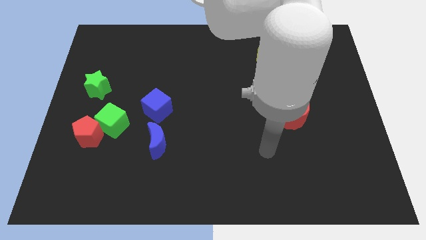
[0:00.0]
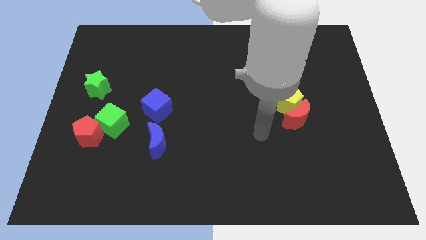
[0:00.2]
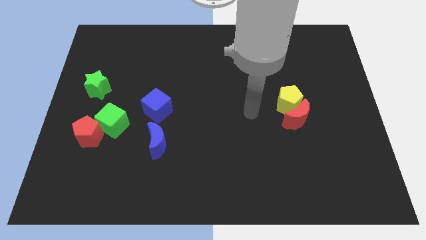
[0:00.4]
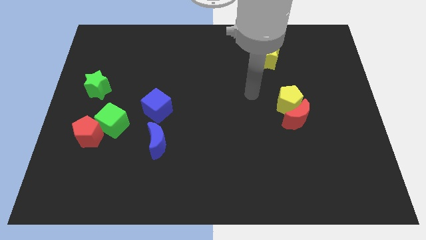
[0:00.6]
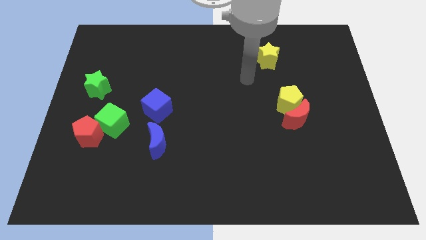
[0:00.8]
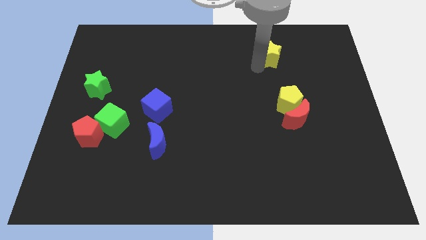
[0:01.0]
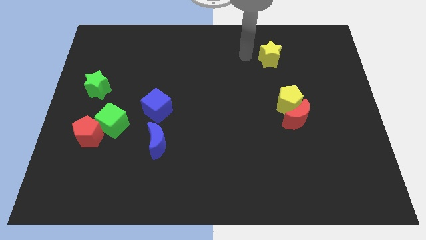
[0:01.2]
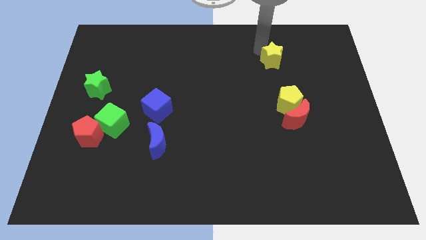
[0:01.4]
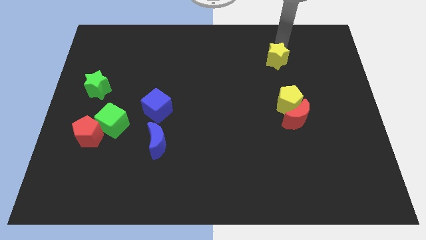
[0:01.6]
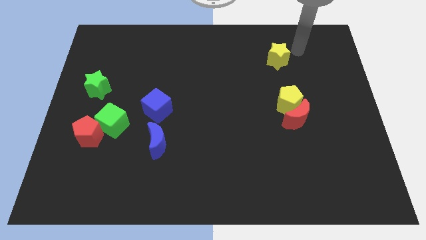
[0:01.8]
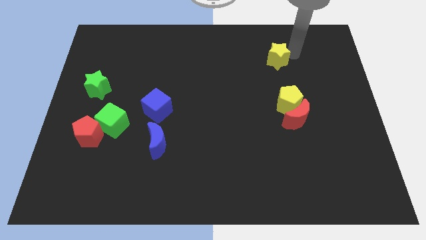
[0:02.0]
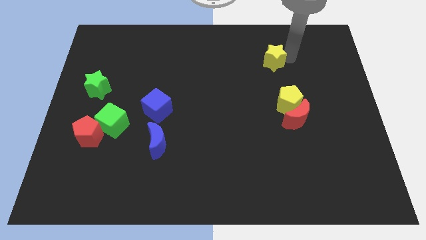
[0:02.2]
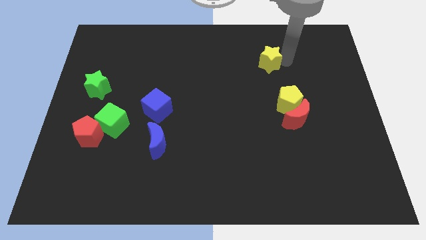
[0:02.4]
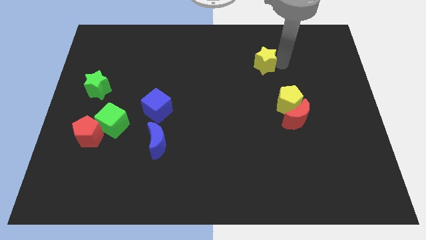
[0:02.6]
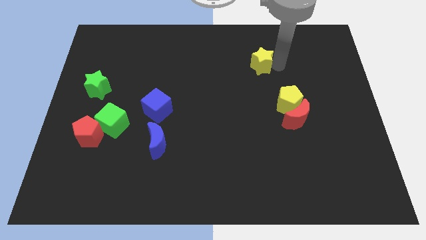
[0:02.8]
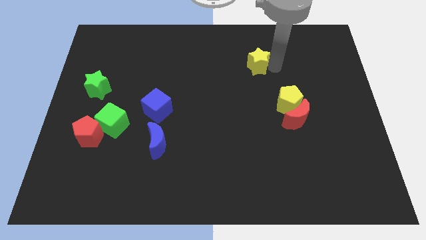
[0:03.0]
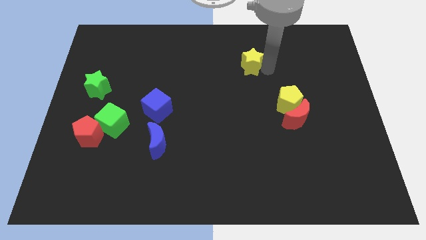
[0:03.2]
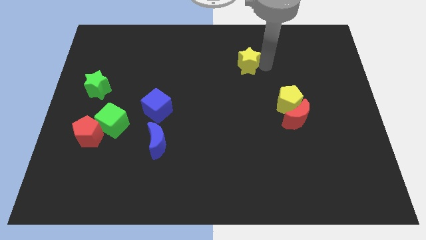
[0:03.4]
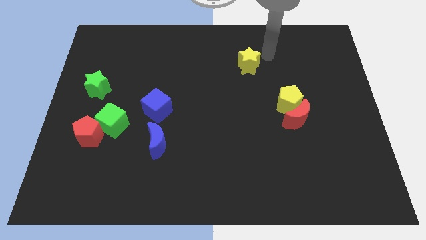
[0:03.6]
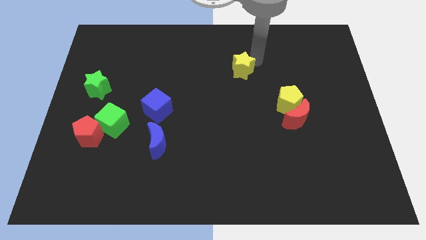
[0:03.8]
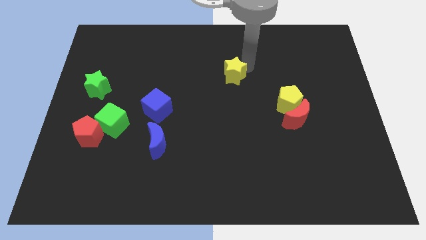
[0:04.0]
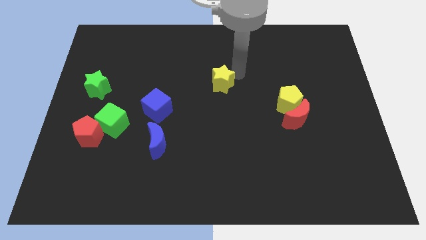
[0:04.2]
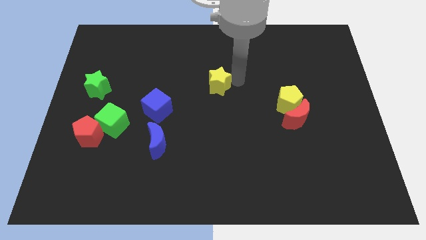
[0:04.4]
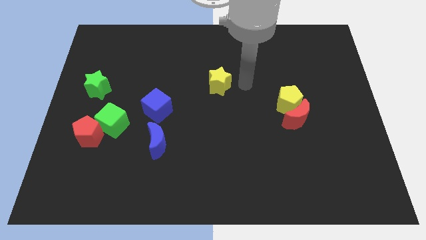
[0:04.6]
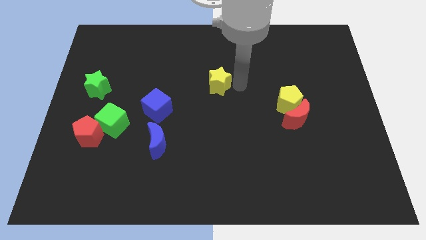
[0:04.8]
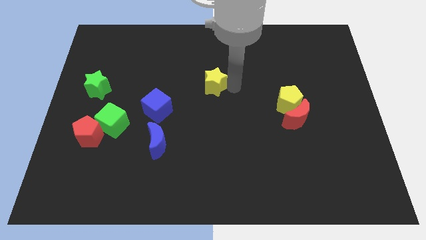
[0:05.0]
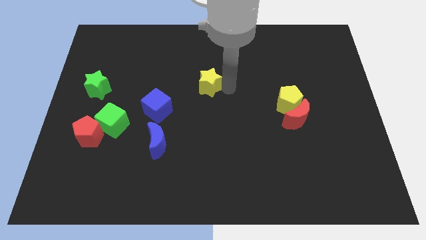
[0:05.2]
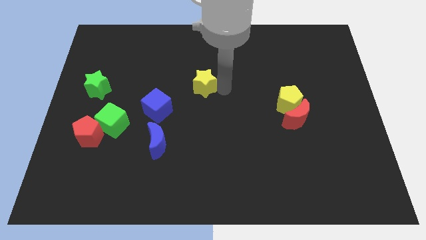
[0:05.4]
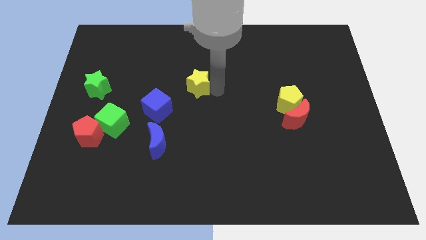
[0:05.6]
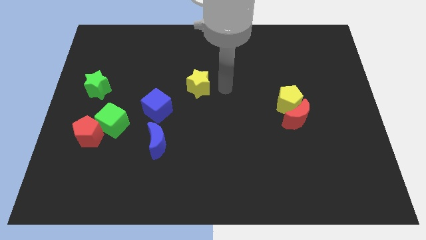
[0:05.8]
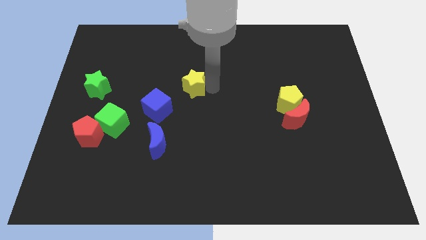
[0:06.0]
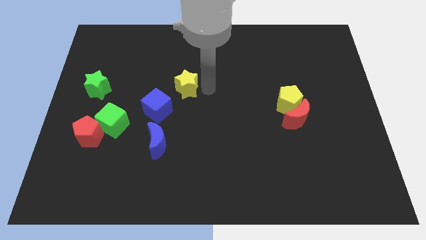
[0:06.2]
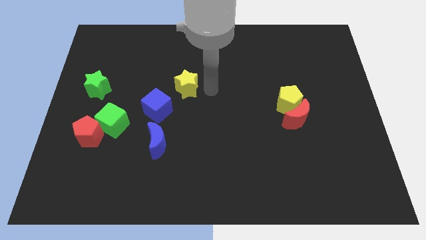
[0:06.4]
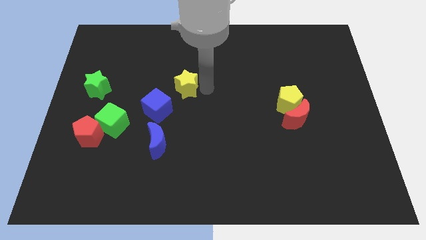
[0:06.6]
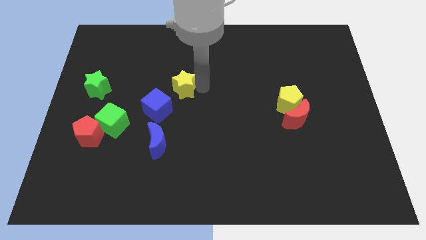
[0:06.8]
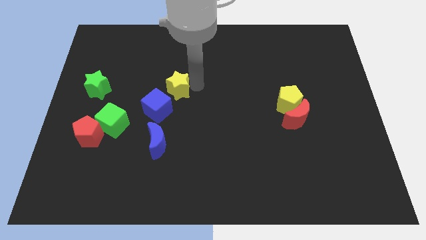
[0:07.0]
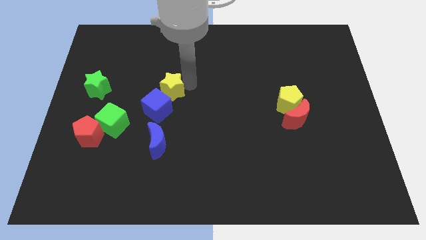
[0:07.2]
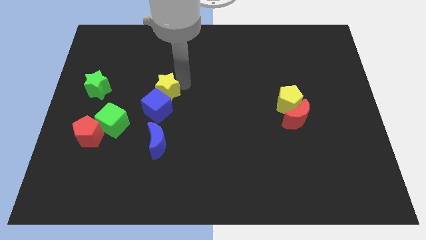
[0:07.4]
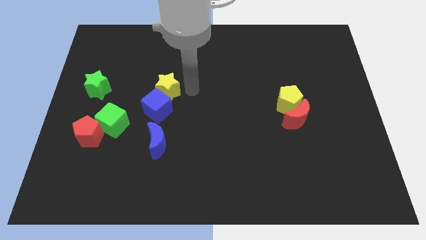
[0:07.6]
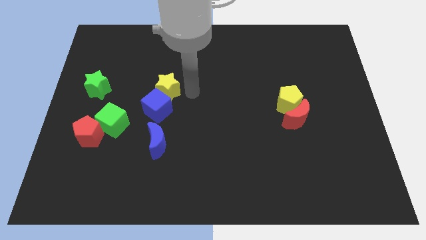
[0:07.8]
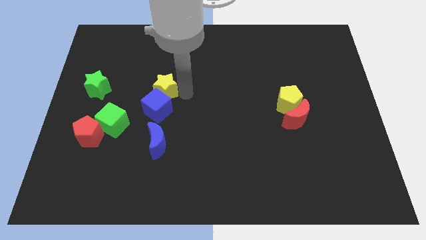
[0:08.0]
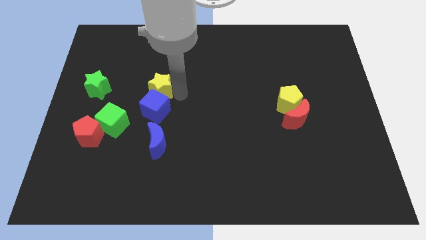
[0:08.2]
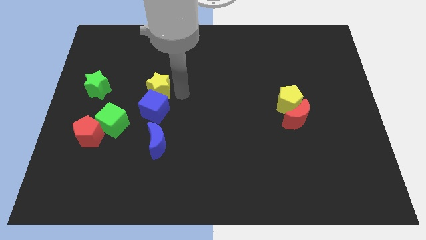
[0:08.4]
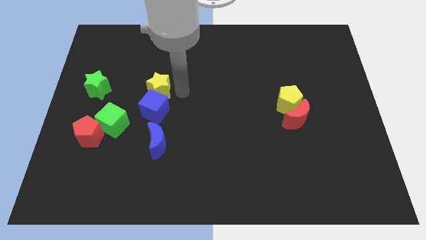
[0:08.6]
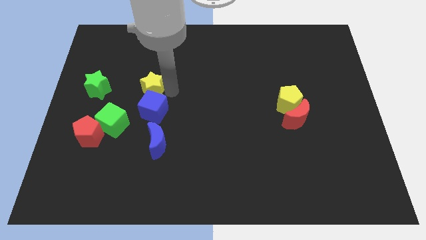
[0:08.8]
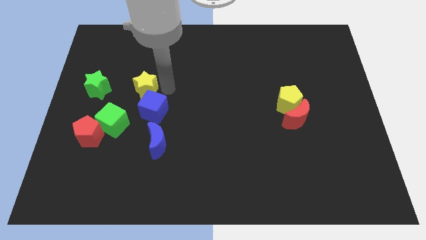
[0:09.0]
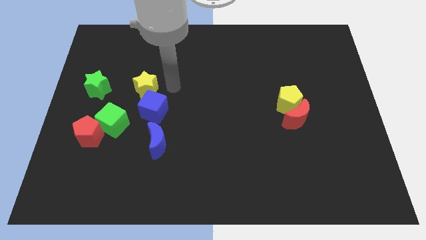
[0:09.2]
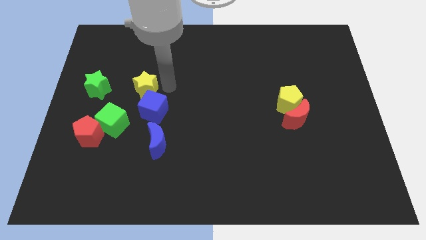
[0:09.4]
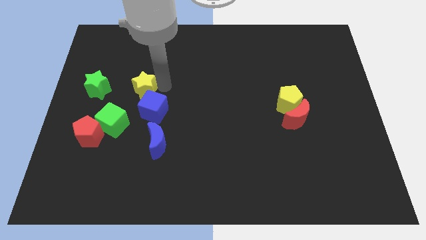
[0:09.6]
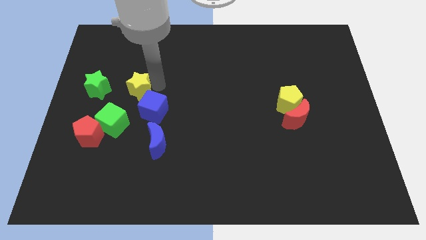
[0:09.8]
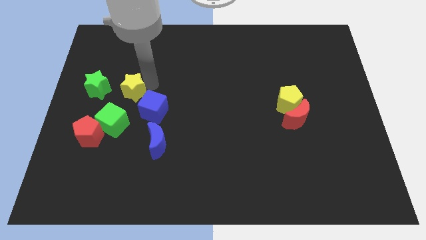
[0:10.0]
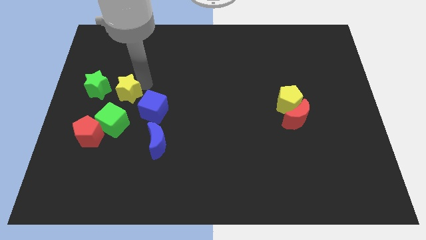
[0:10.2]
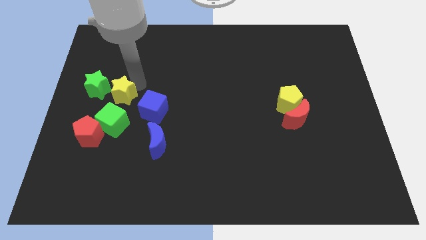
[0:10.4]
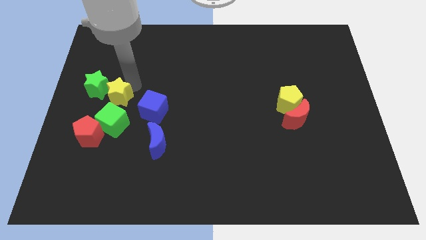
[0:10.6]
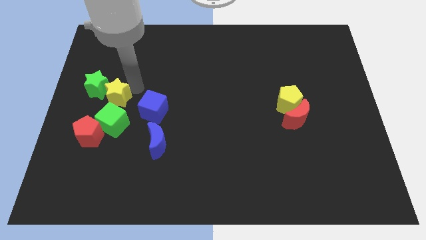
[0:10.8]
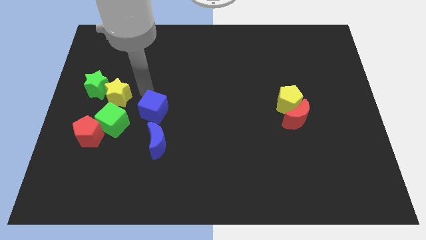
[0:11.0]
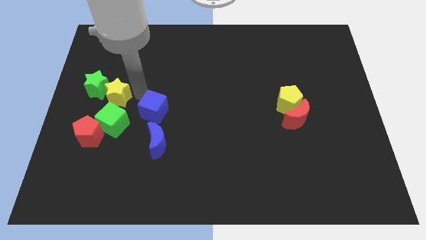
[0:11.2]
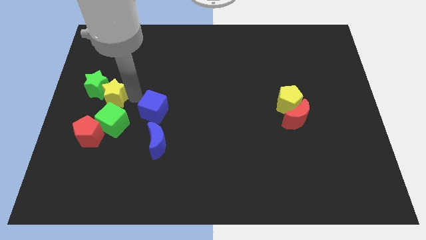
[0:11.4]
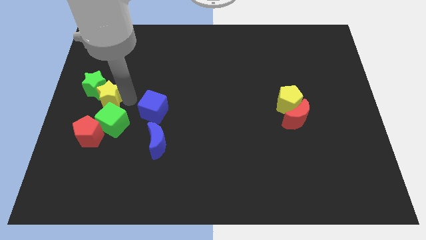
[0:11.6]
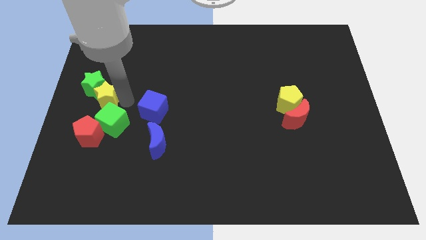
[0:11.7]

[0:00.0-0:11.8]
move the yellow star to the center left
